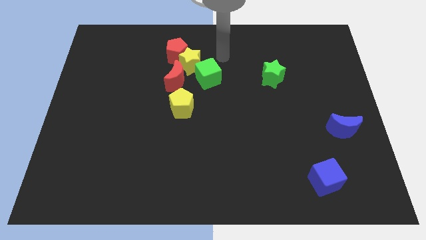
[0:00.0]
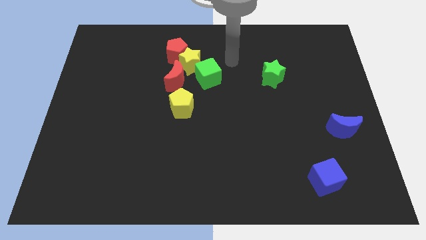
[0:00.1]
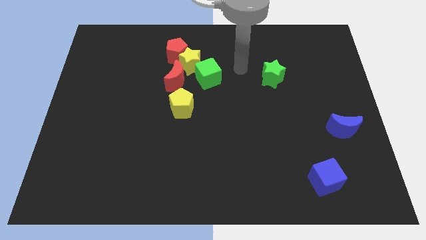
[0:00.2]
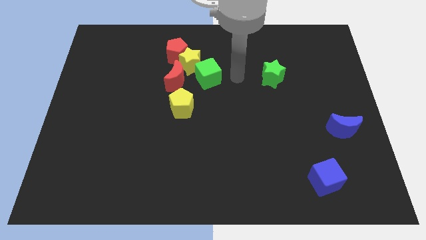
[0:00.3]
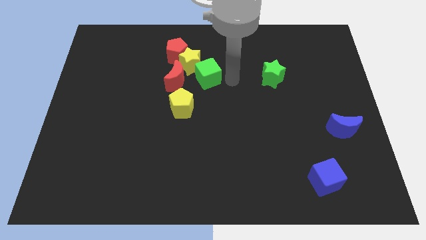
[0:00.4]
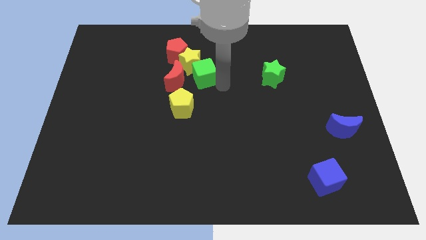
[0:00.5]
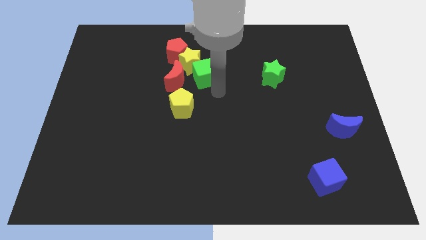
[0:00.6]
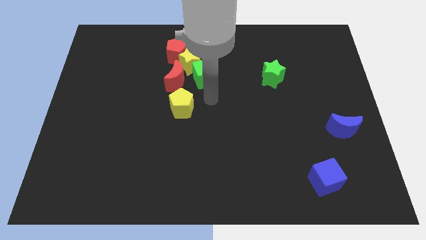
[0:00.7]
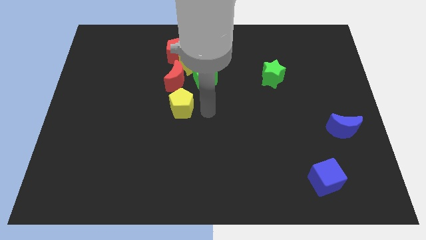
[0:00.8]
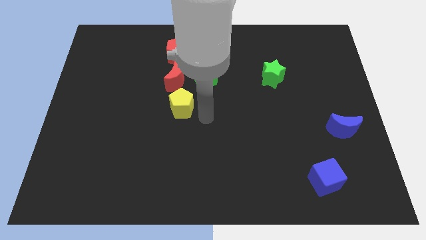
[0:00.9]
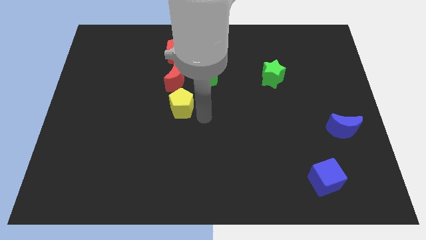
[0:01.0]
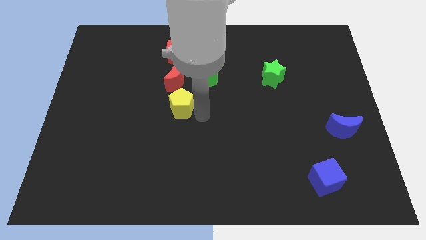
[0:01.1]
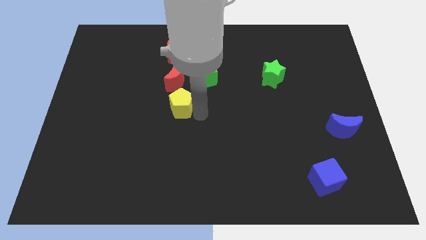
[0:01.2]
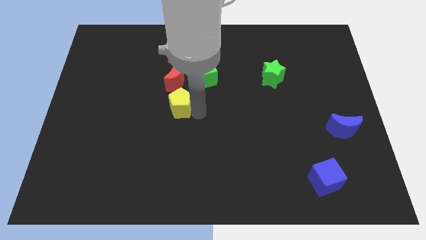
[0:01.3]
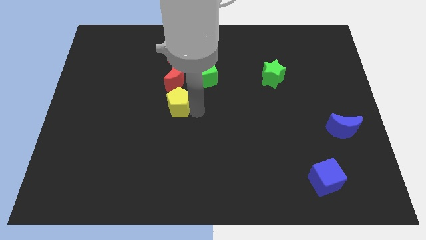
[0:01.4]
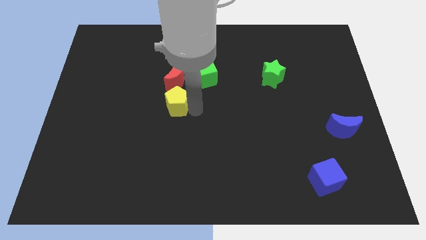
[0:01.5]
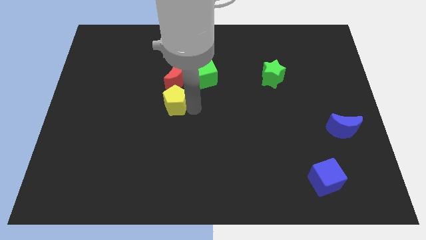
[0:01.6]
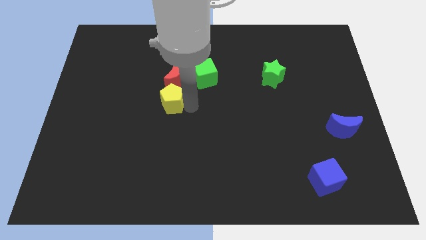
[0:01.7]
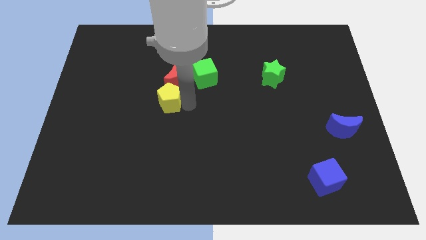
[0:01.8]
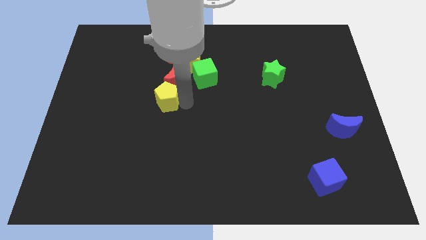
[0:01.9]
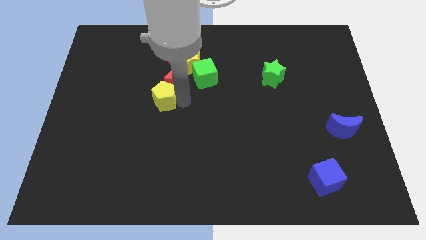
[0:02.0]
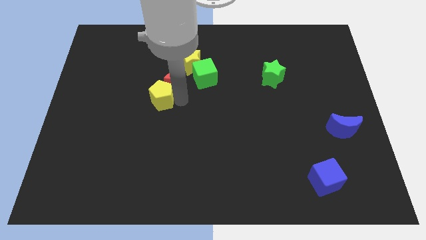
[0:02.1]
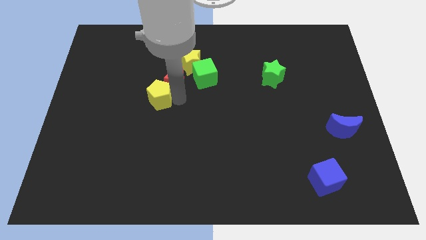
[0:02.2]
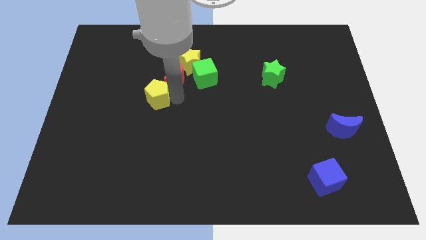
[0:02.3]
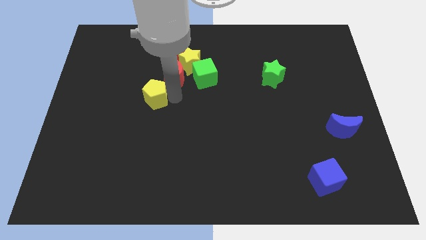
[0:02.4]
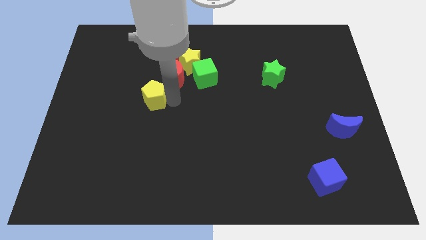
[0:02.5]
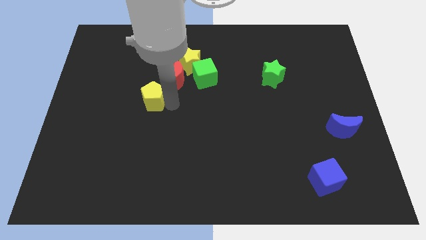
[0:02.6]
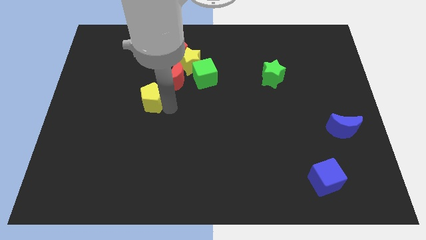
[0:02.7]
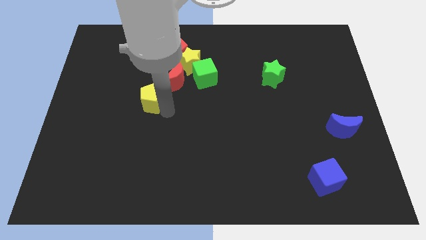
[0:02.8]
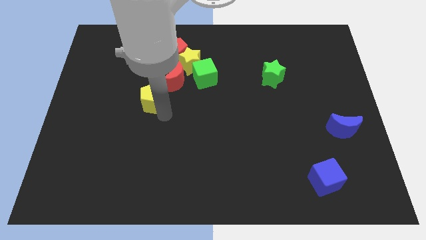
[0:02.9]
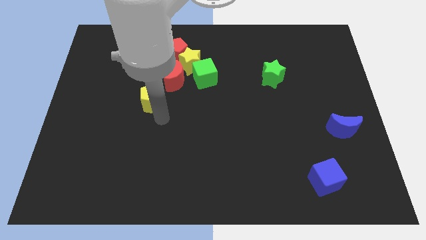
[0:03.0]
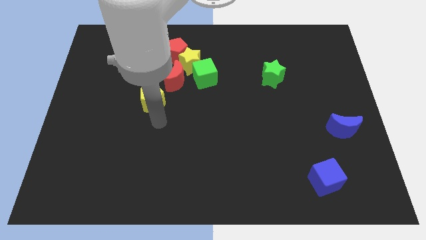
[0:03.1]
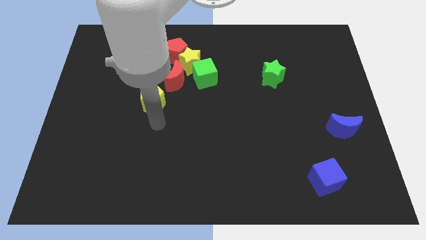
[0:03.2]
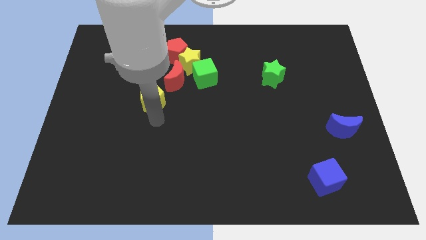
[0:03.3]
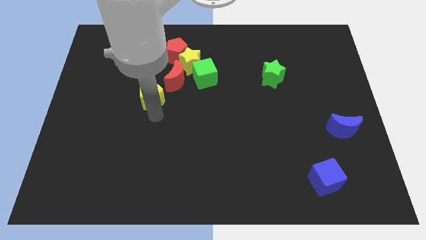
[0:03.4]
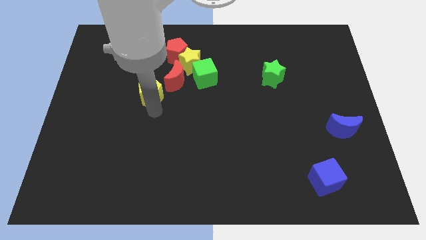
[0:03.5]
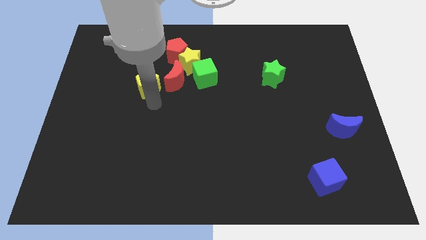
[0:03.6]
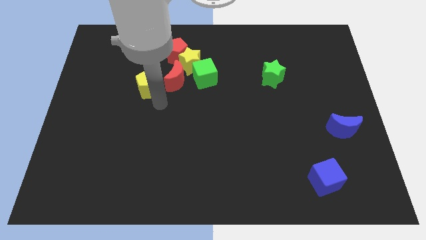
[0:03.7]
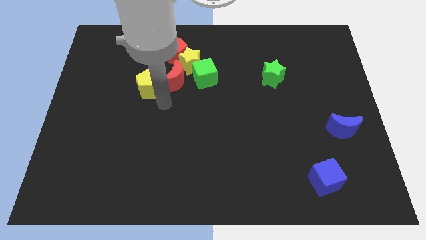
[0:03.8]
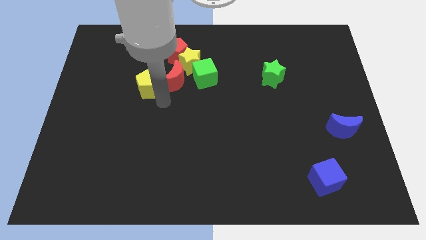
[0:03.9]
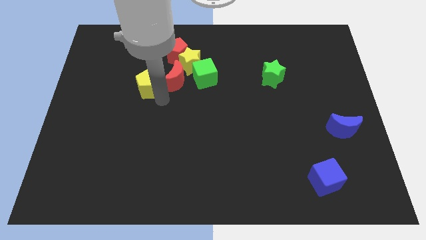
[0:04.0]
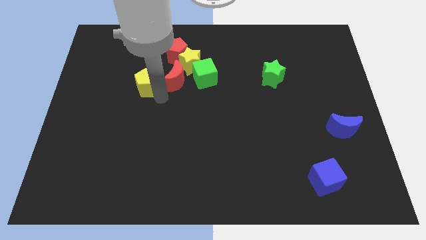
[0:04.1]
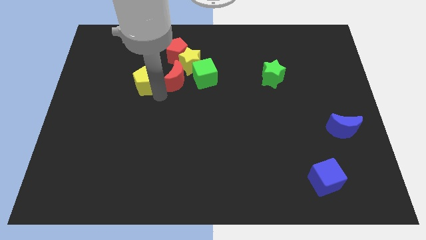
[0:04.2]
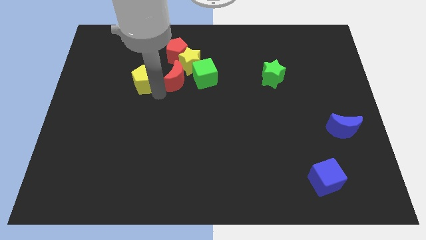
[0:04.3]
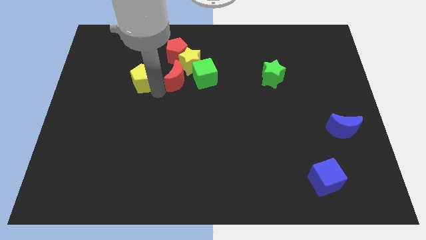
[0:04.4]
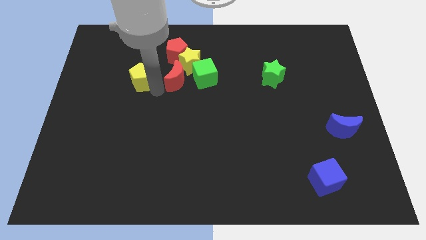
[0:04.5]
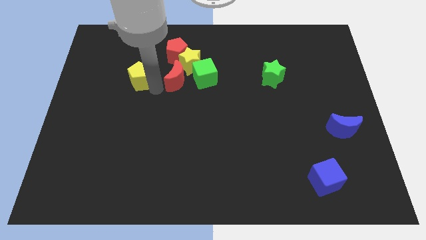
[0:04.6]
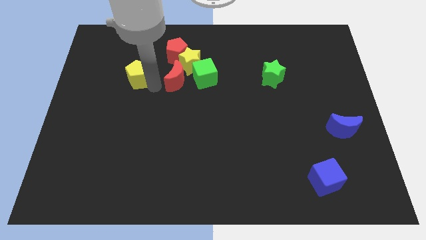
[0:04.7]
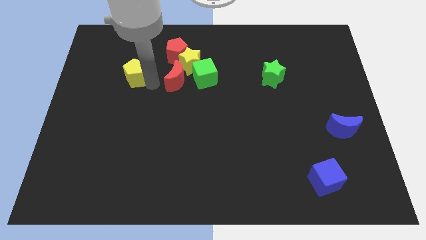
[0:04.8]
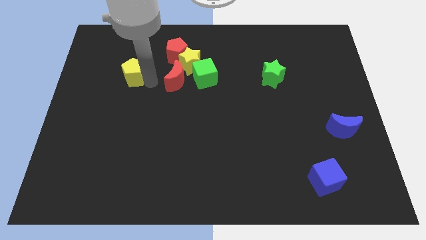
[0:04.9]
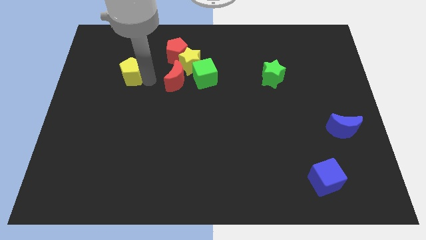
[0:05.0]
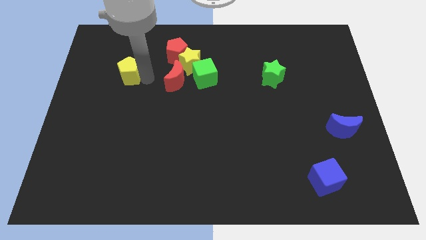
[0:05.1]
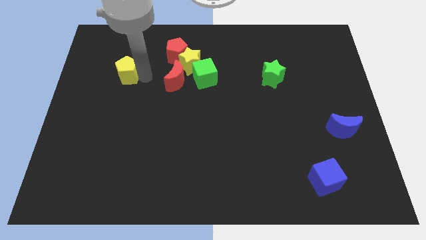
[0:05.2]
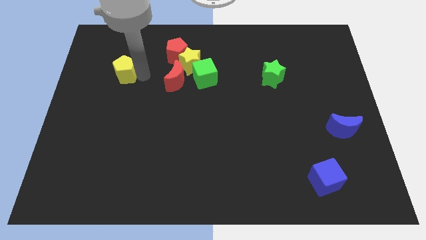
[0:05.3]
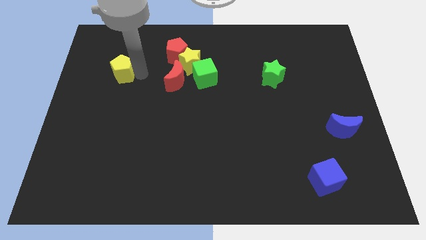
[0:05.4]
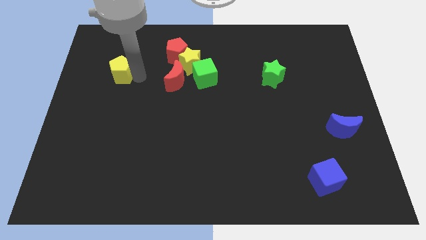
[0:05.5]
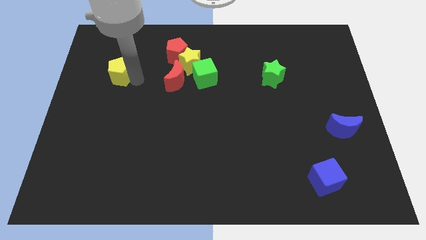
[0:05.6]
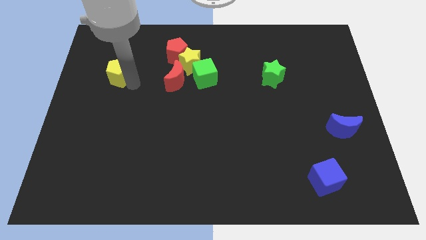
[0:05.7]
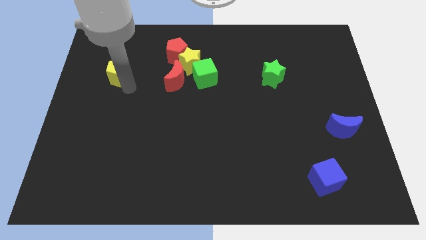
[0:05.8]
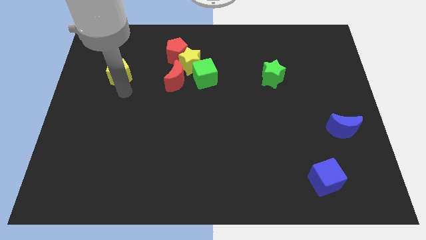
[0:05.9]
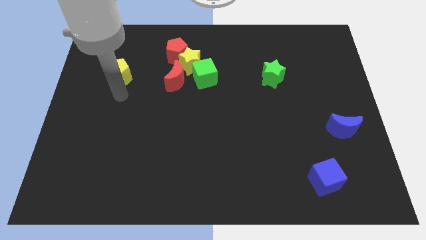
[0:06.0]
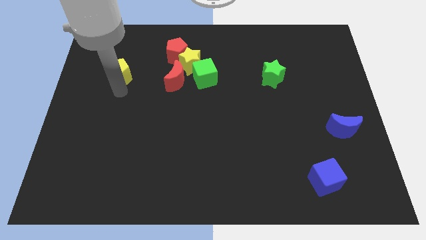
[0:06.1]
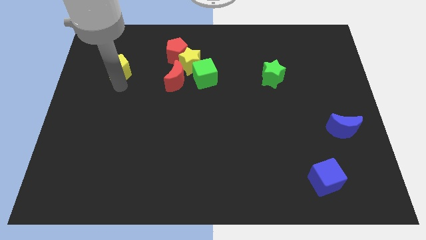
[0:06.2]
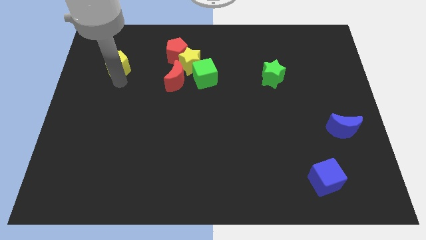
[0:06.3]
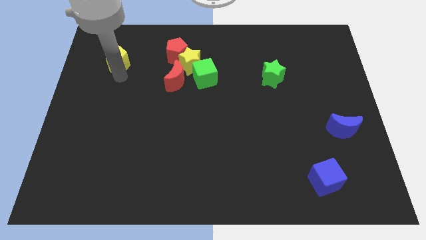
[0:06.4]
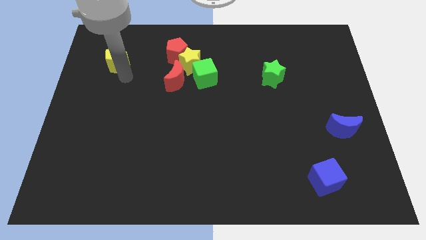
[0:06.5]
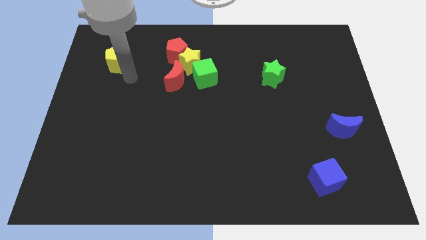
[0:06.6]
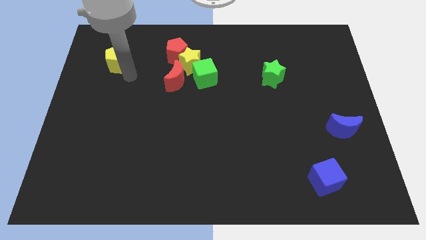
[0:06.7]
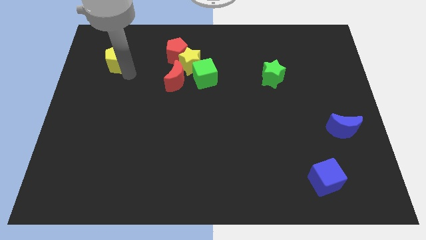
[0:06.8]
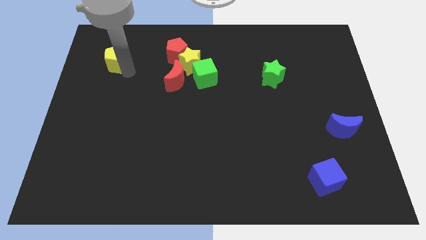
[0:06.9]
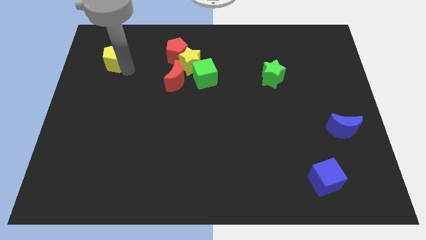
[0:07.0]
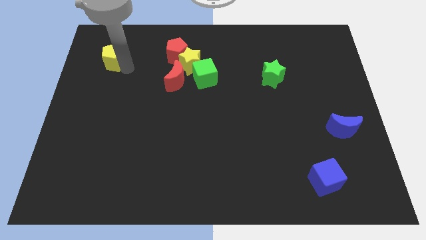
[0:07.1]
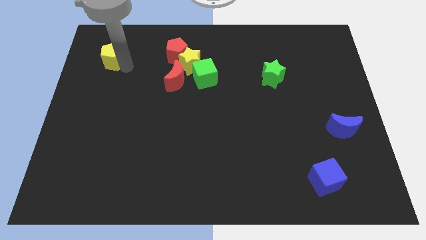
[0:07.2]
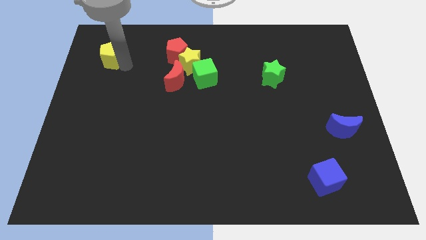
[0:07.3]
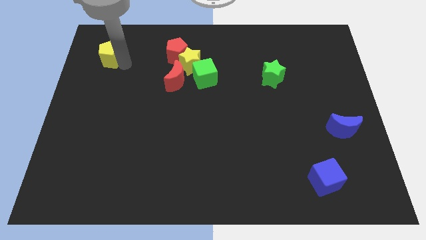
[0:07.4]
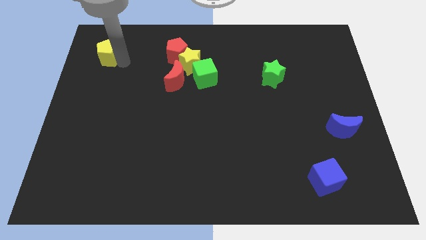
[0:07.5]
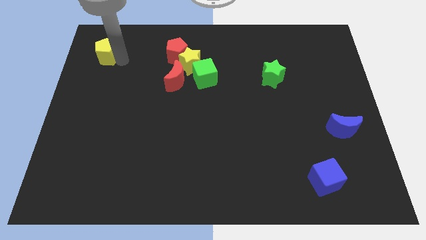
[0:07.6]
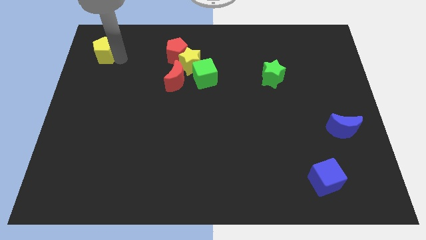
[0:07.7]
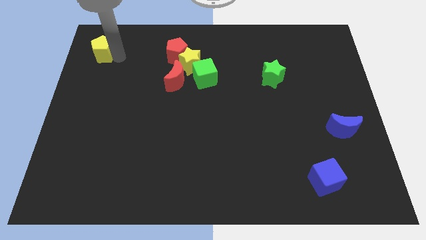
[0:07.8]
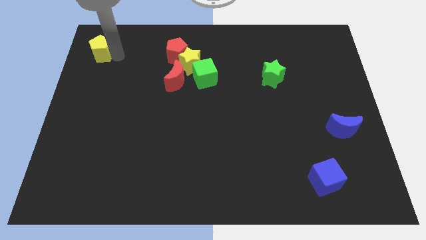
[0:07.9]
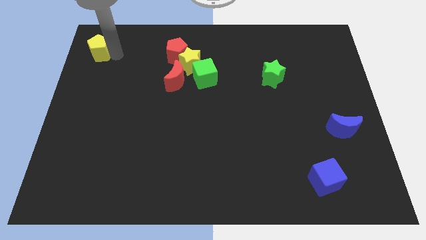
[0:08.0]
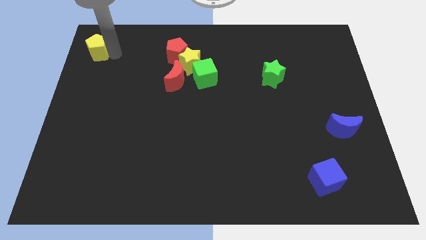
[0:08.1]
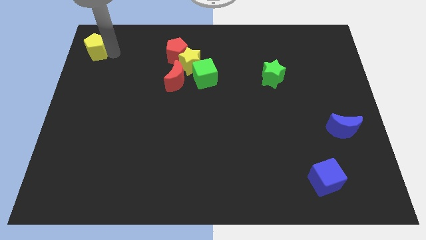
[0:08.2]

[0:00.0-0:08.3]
put the yellow pentagon to the top left
